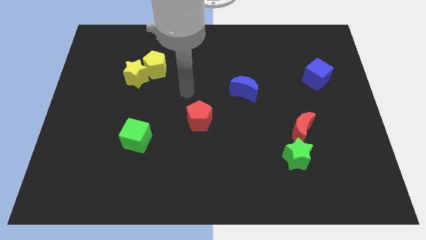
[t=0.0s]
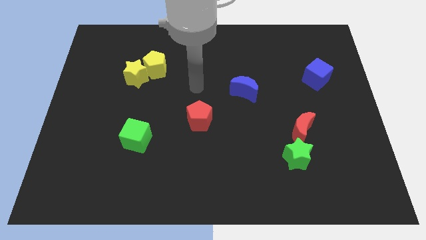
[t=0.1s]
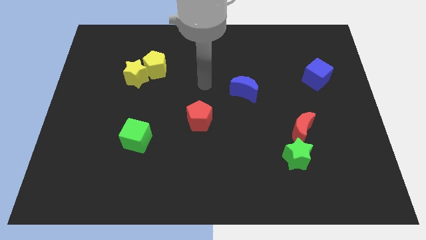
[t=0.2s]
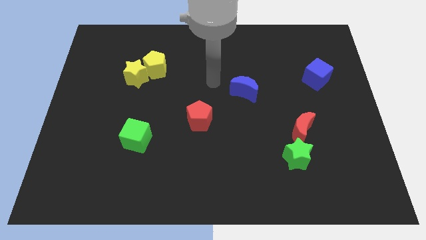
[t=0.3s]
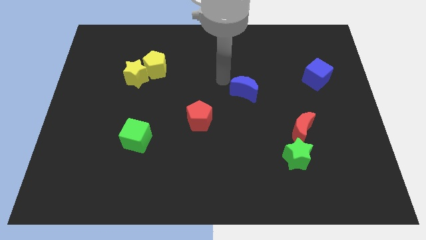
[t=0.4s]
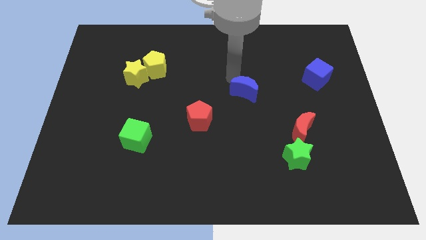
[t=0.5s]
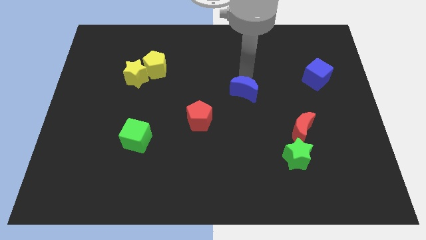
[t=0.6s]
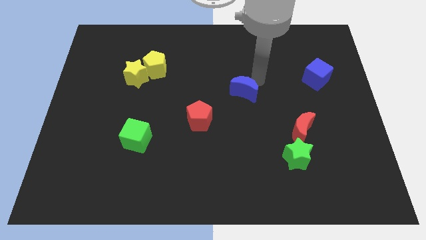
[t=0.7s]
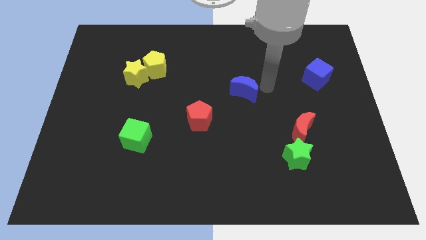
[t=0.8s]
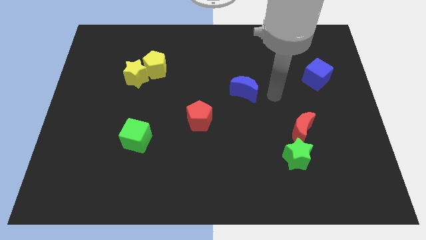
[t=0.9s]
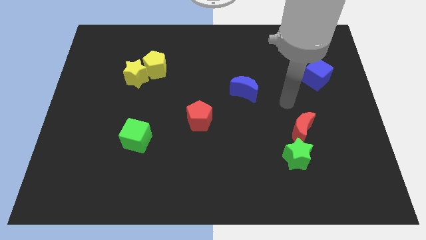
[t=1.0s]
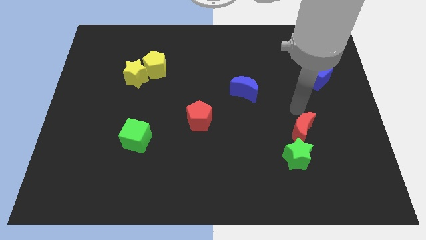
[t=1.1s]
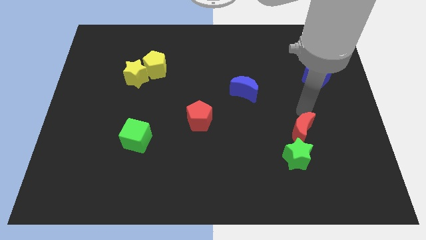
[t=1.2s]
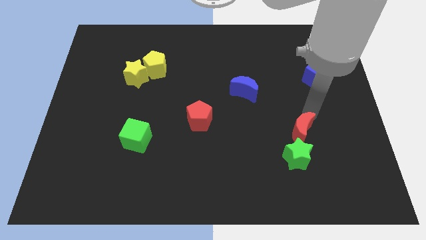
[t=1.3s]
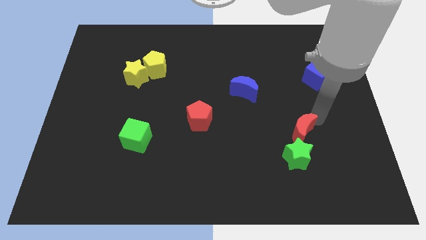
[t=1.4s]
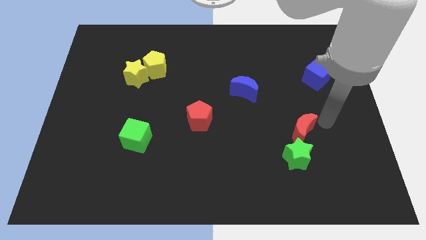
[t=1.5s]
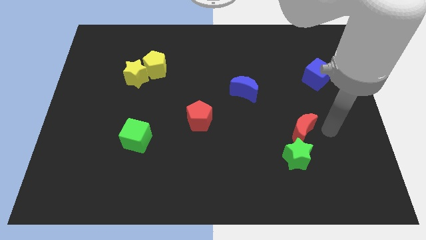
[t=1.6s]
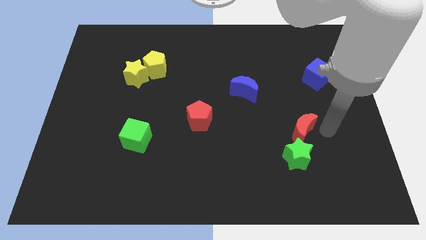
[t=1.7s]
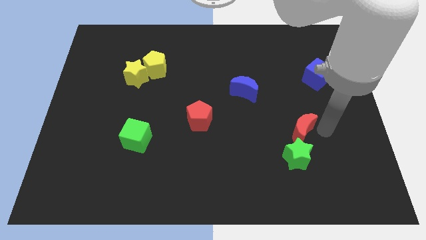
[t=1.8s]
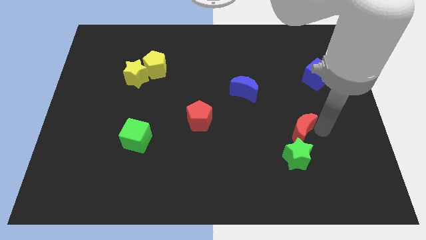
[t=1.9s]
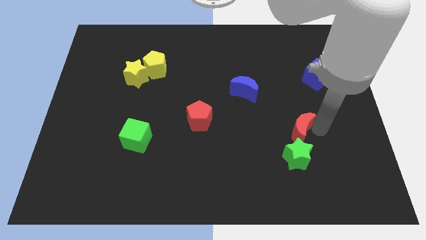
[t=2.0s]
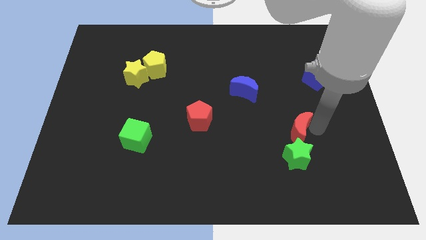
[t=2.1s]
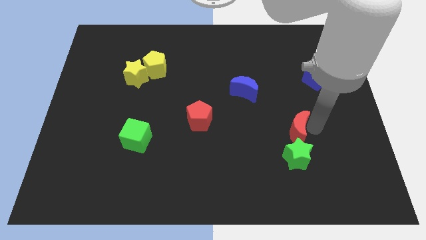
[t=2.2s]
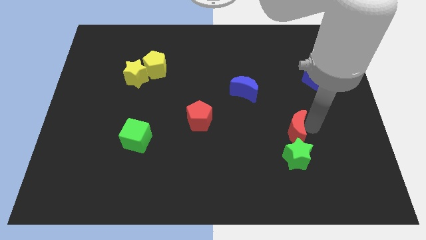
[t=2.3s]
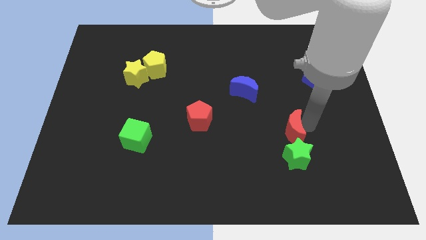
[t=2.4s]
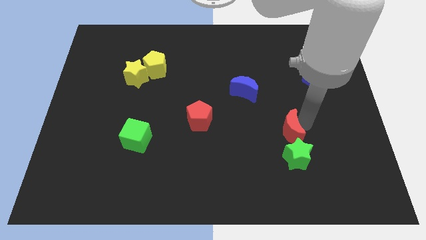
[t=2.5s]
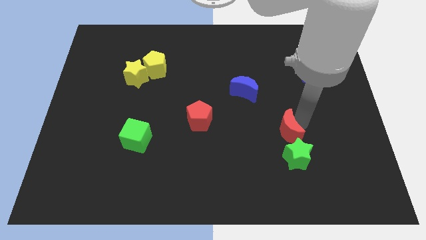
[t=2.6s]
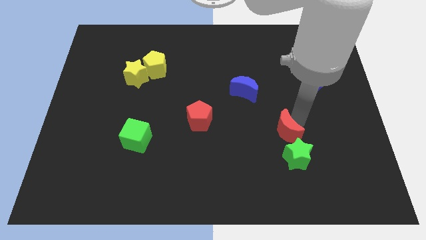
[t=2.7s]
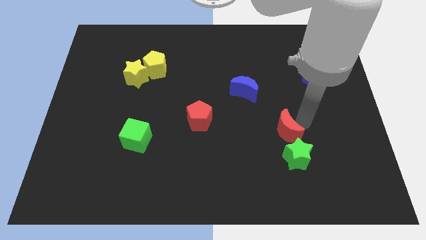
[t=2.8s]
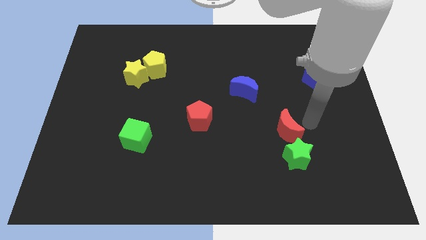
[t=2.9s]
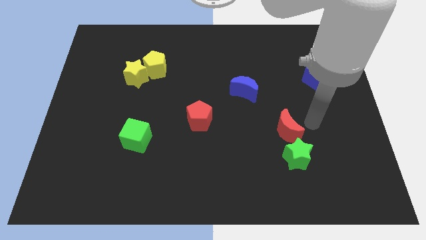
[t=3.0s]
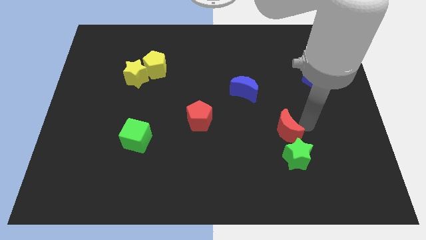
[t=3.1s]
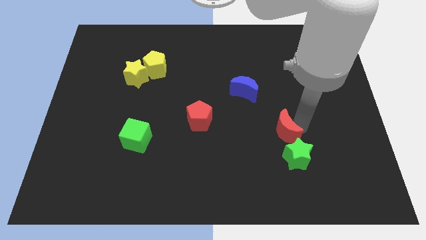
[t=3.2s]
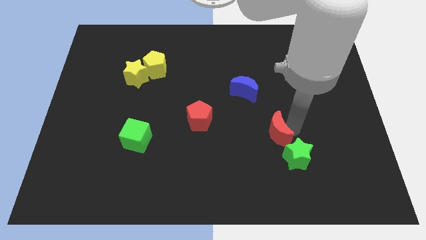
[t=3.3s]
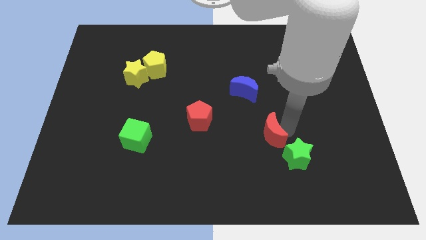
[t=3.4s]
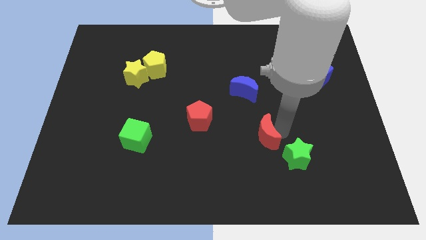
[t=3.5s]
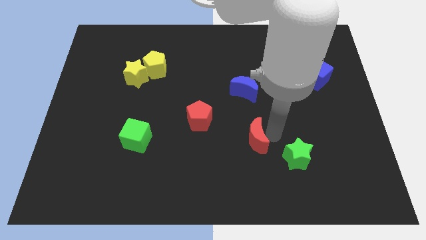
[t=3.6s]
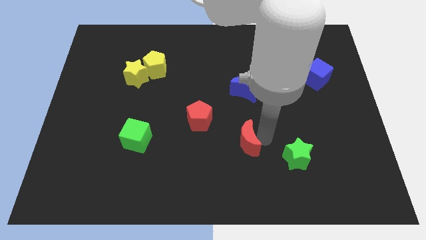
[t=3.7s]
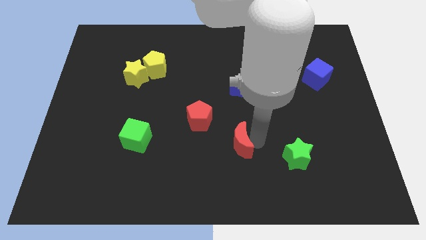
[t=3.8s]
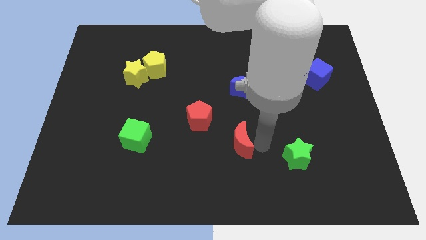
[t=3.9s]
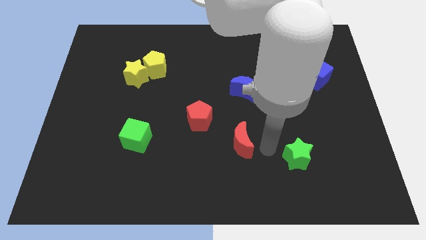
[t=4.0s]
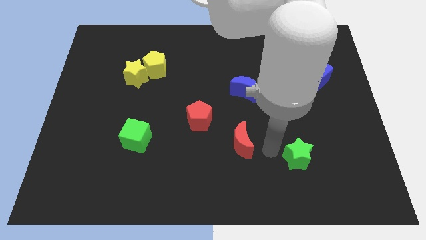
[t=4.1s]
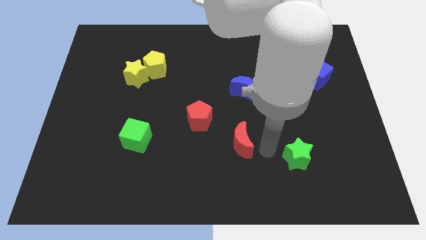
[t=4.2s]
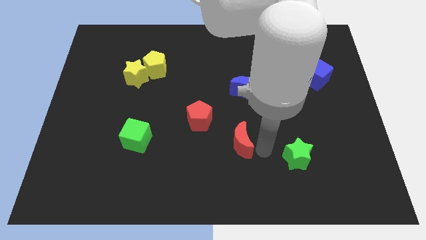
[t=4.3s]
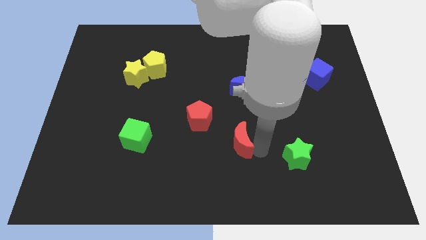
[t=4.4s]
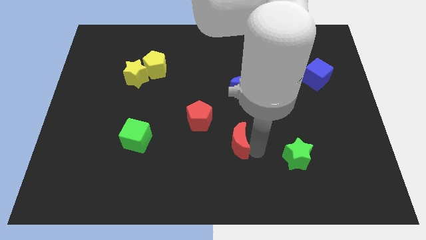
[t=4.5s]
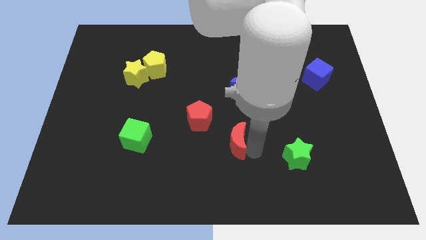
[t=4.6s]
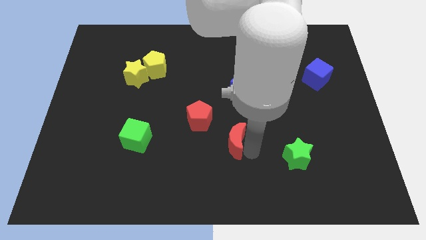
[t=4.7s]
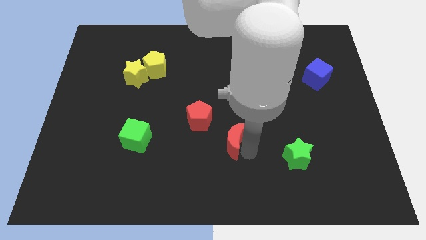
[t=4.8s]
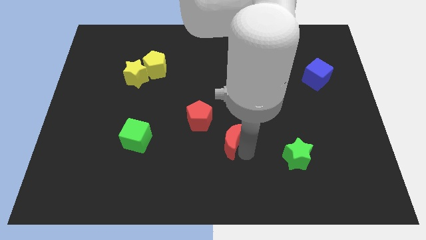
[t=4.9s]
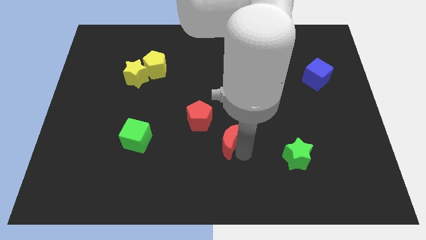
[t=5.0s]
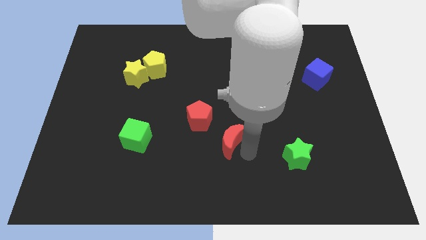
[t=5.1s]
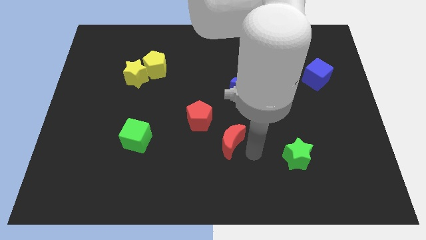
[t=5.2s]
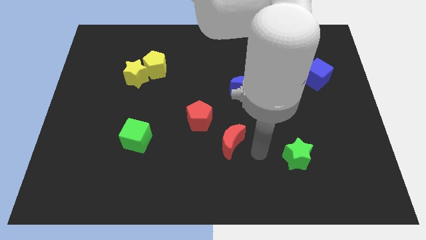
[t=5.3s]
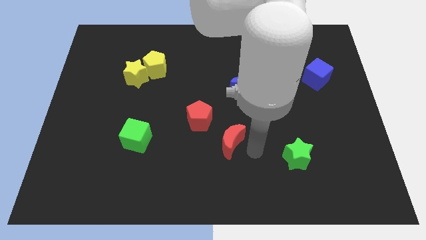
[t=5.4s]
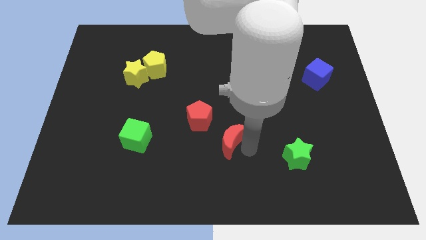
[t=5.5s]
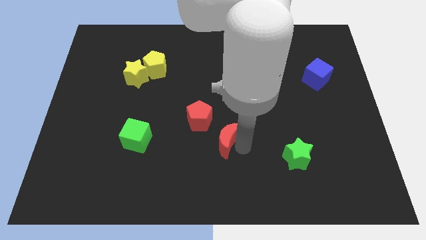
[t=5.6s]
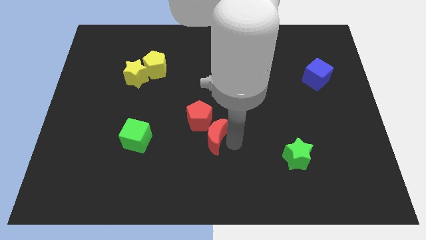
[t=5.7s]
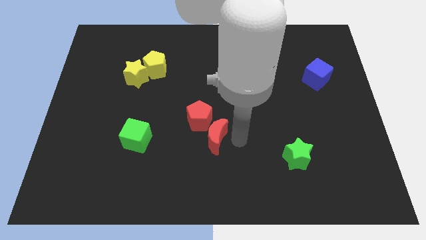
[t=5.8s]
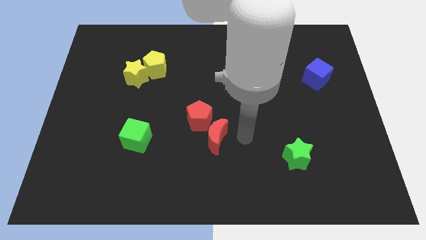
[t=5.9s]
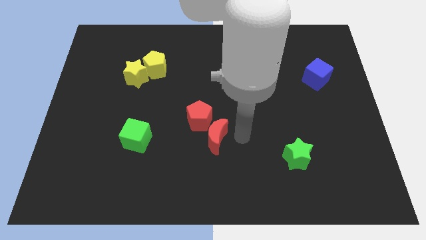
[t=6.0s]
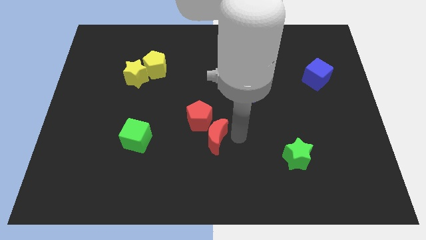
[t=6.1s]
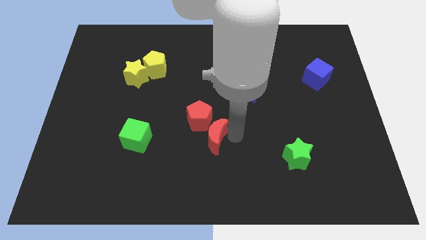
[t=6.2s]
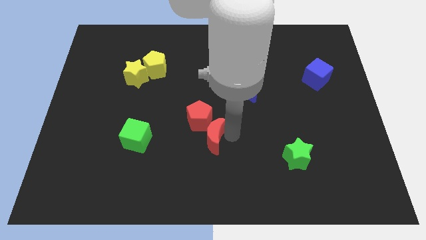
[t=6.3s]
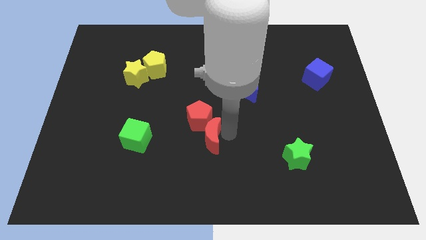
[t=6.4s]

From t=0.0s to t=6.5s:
move the red moon to the left

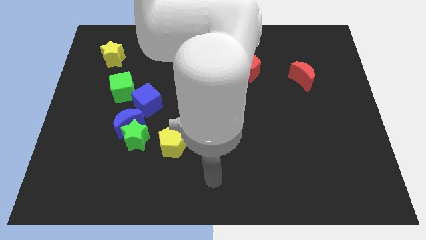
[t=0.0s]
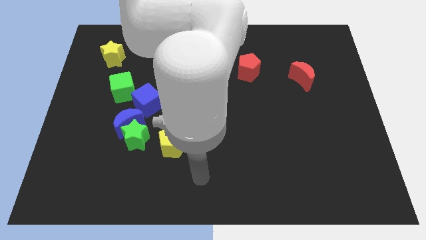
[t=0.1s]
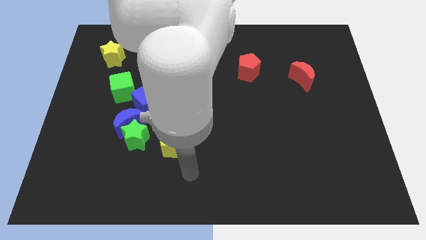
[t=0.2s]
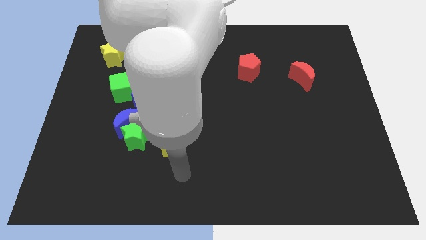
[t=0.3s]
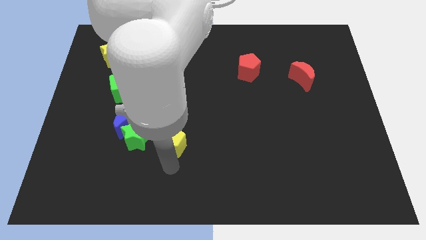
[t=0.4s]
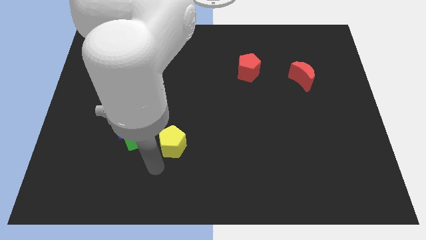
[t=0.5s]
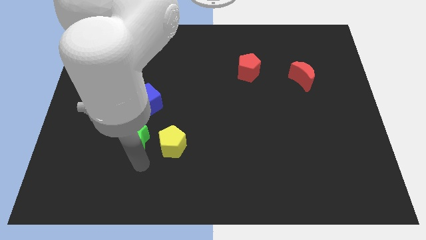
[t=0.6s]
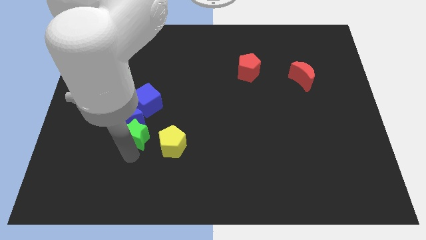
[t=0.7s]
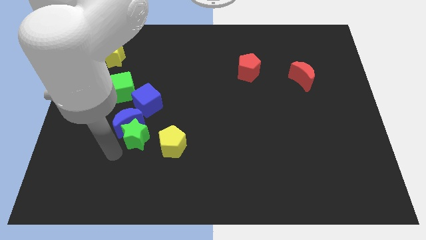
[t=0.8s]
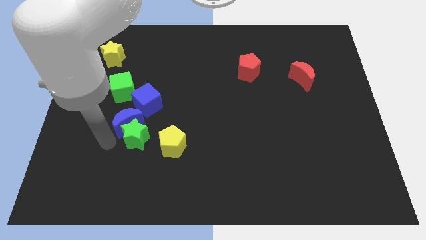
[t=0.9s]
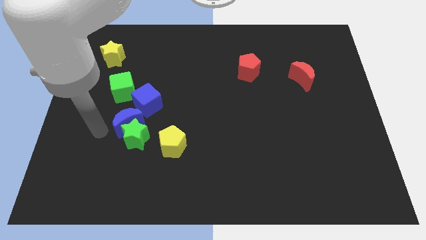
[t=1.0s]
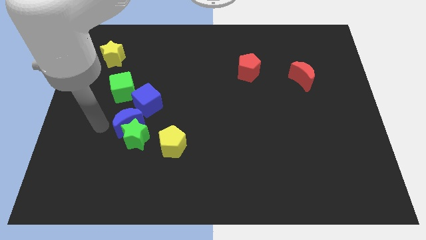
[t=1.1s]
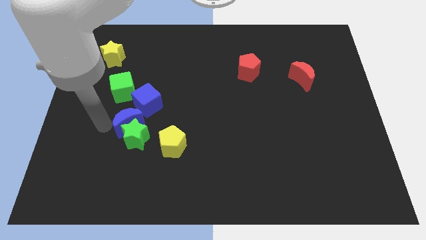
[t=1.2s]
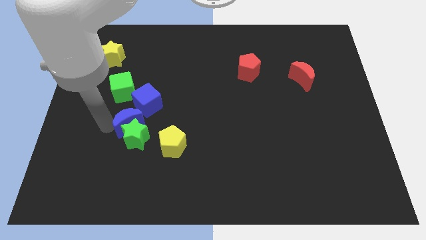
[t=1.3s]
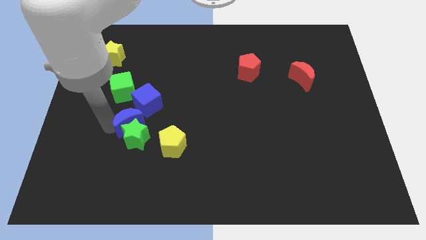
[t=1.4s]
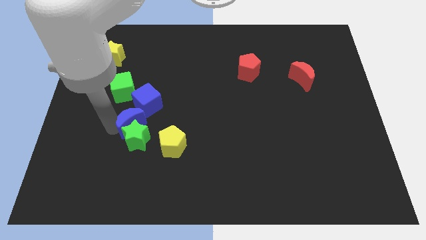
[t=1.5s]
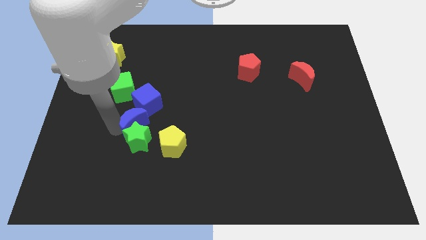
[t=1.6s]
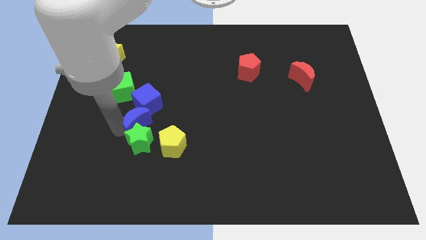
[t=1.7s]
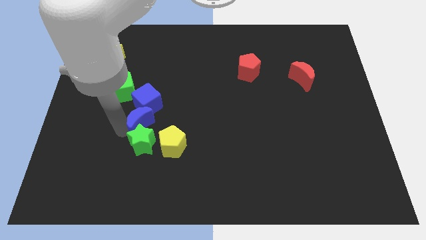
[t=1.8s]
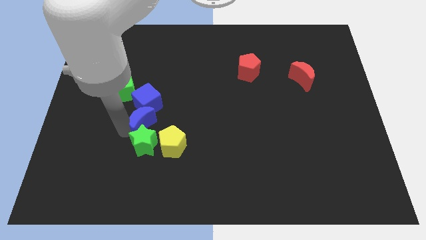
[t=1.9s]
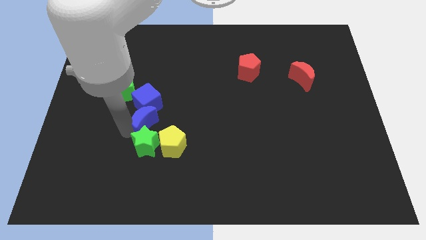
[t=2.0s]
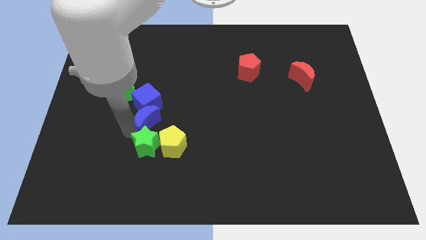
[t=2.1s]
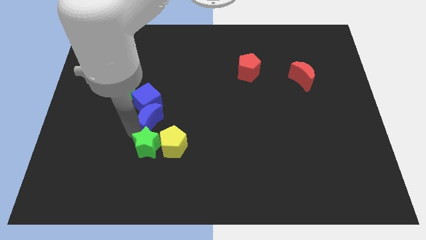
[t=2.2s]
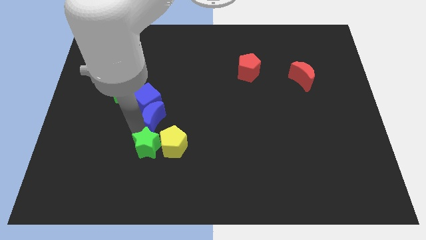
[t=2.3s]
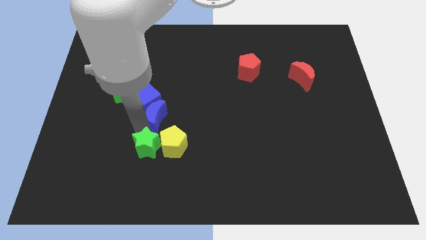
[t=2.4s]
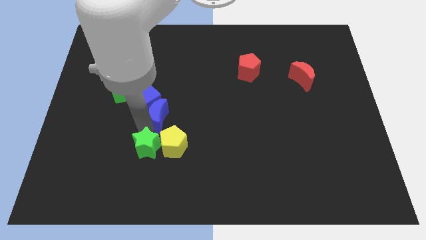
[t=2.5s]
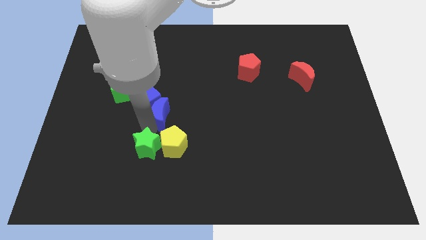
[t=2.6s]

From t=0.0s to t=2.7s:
slide the blue moon a bit right
